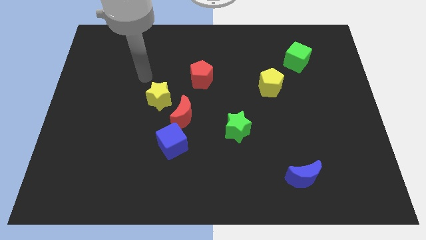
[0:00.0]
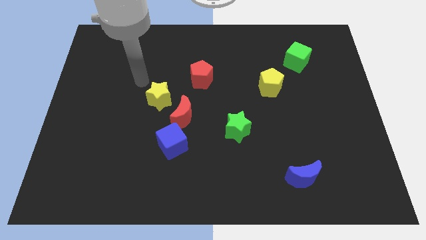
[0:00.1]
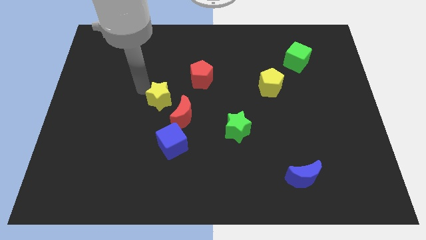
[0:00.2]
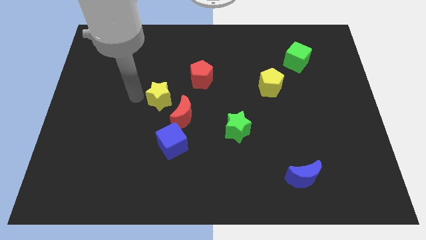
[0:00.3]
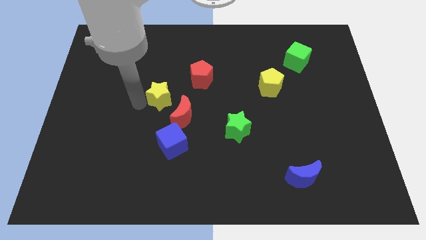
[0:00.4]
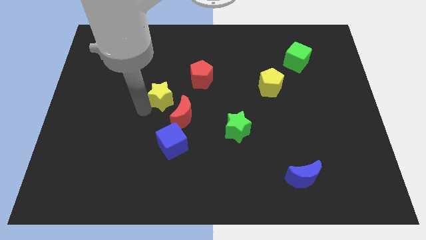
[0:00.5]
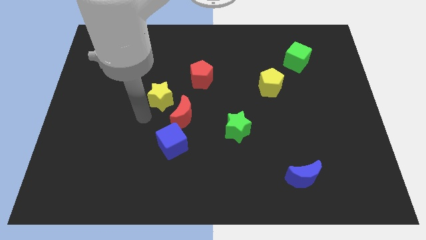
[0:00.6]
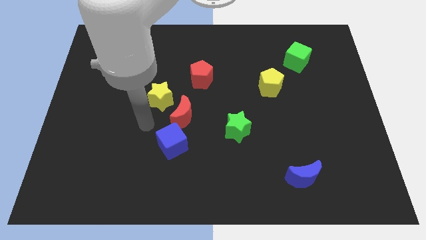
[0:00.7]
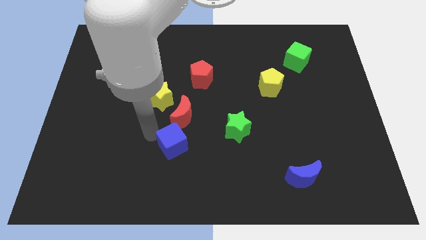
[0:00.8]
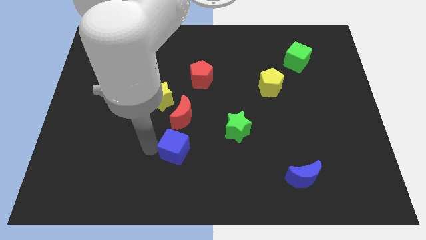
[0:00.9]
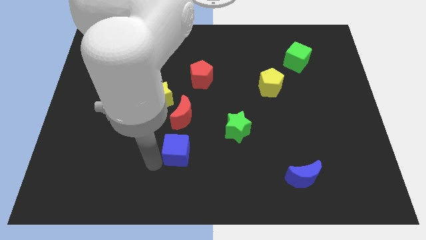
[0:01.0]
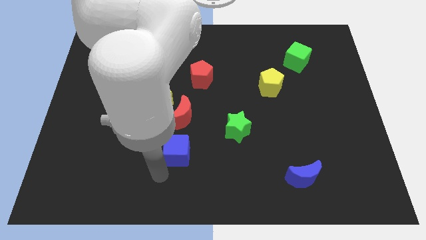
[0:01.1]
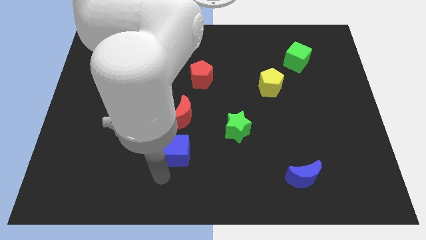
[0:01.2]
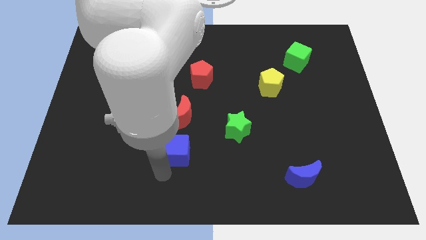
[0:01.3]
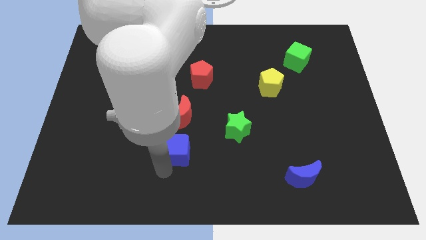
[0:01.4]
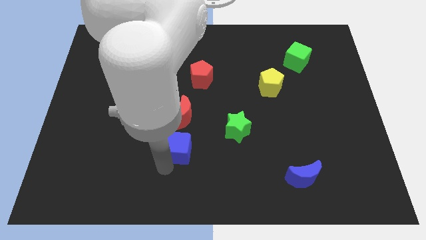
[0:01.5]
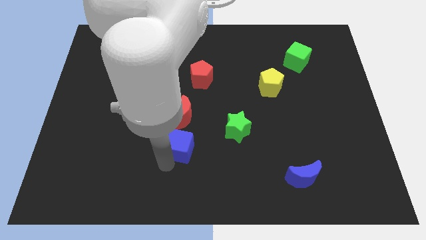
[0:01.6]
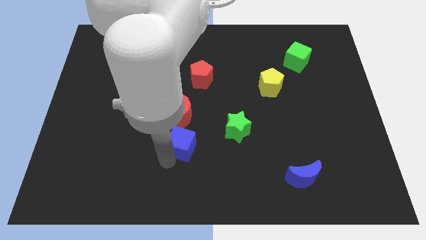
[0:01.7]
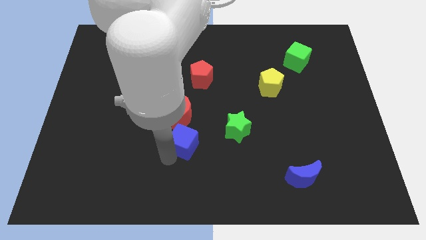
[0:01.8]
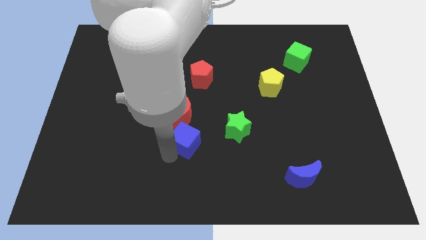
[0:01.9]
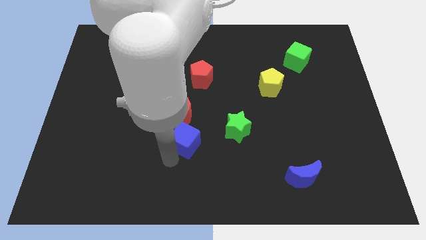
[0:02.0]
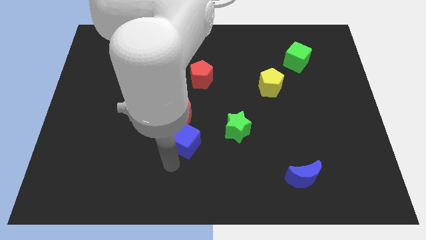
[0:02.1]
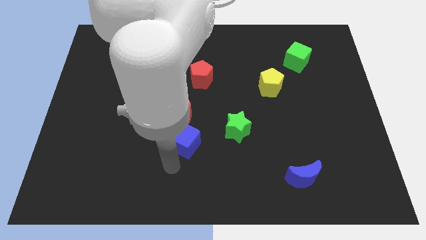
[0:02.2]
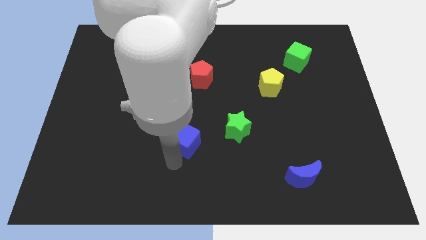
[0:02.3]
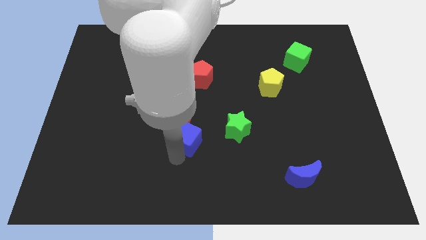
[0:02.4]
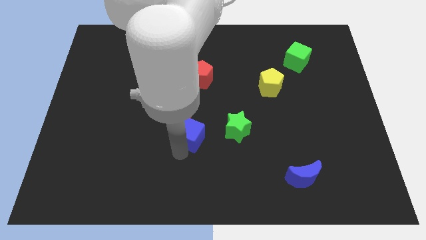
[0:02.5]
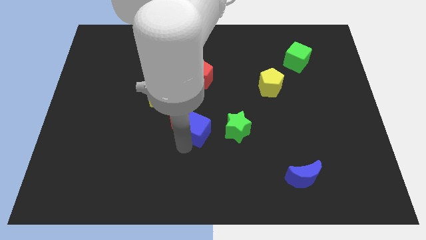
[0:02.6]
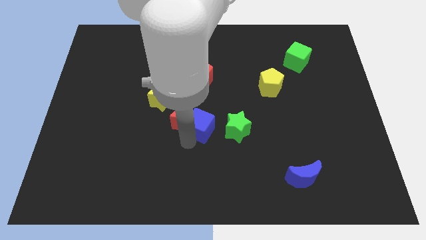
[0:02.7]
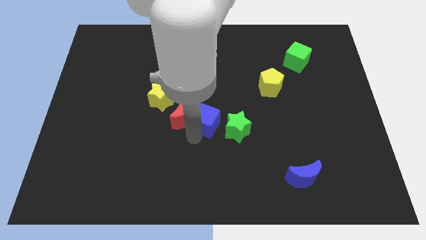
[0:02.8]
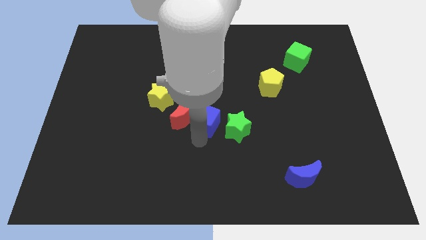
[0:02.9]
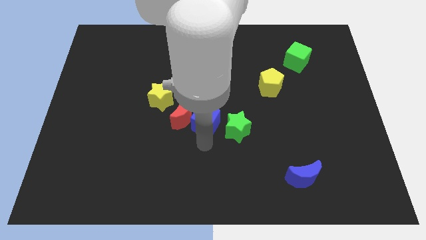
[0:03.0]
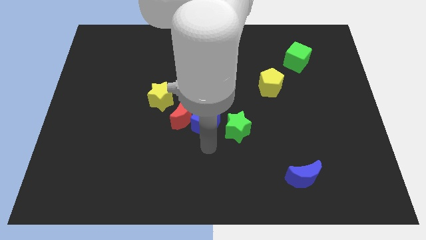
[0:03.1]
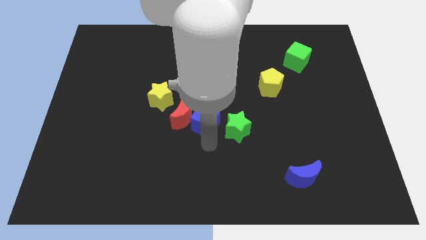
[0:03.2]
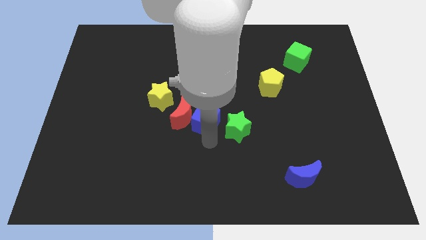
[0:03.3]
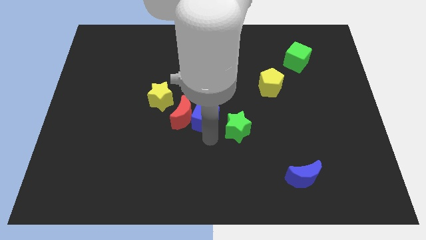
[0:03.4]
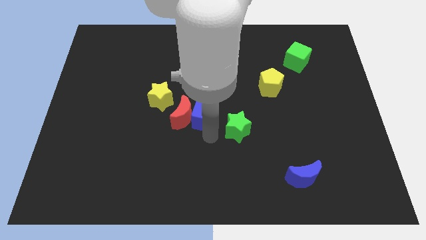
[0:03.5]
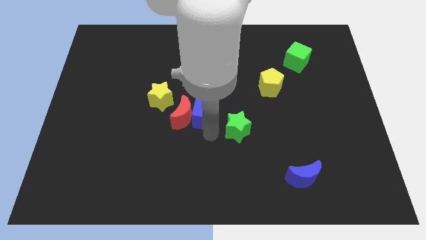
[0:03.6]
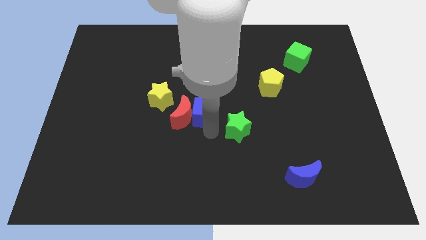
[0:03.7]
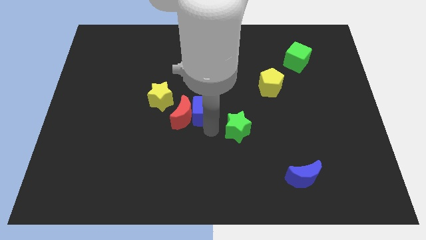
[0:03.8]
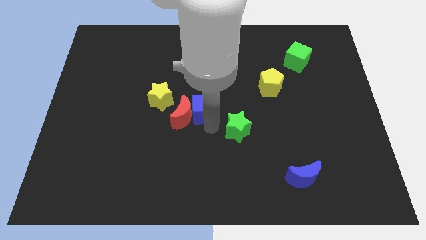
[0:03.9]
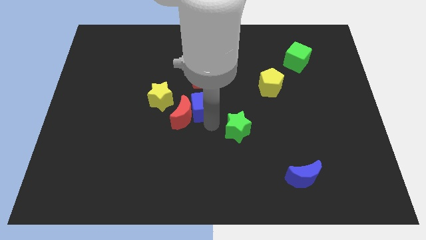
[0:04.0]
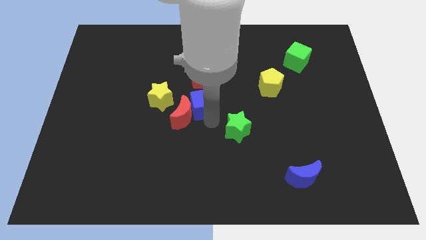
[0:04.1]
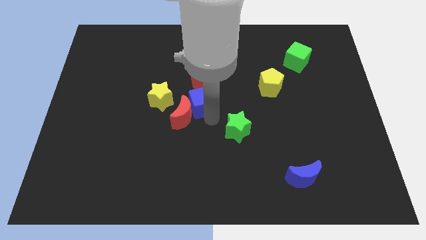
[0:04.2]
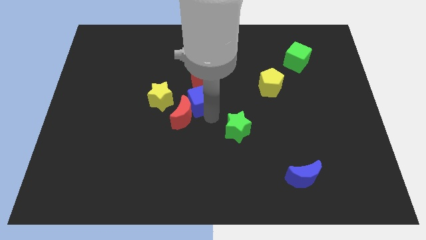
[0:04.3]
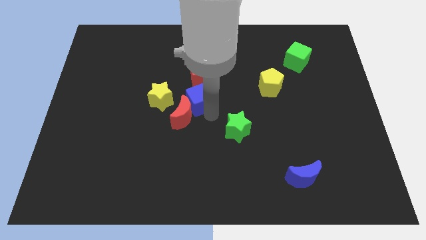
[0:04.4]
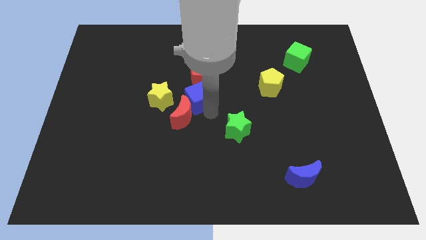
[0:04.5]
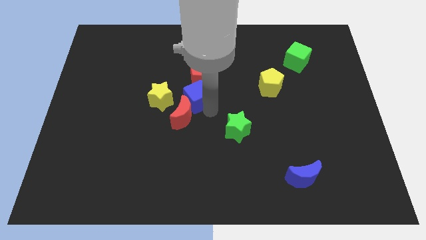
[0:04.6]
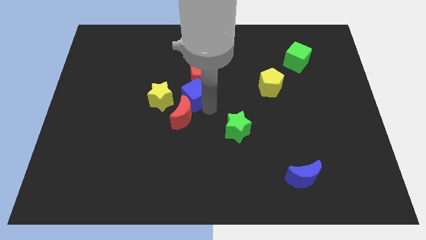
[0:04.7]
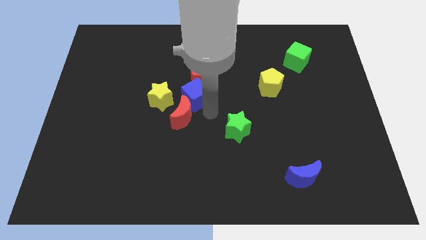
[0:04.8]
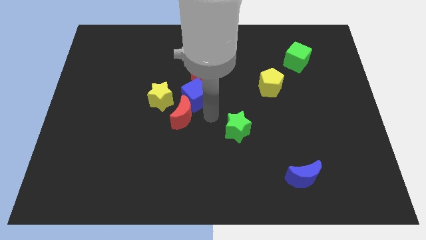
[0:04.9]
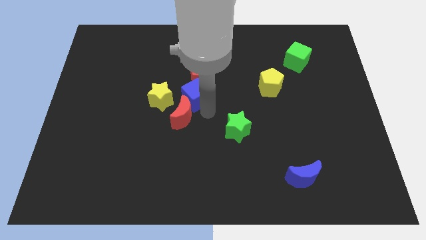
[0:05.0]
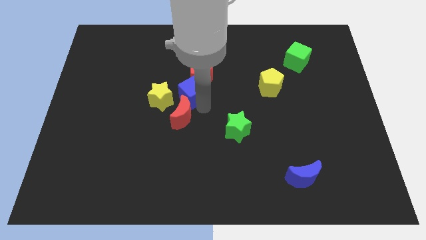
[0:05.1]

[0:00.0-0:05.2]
slide the blue cube diagonally up and to the right of the yellow star
